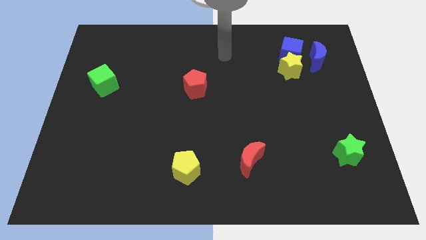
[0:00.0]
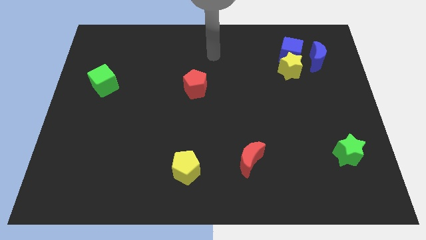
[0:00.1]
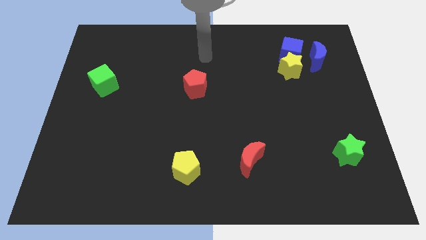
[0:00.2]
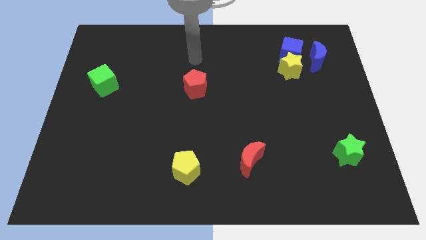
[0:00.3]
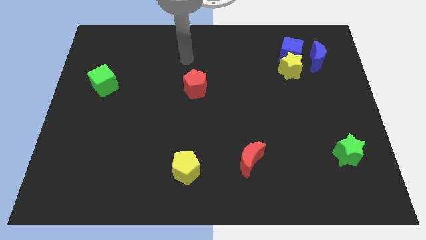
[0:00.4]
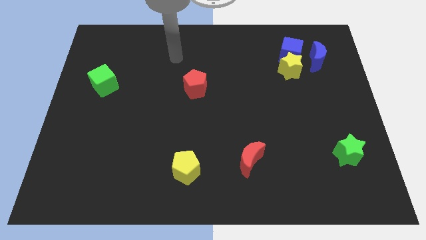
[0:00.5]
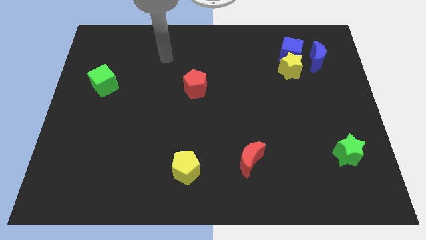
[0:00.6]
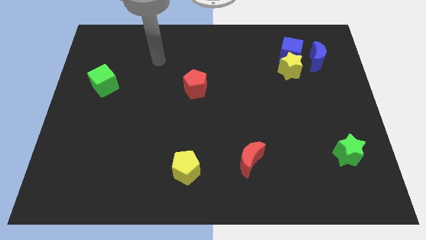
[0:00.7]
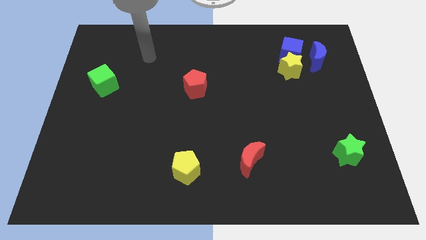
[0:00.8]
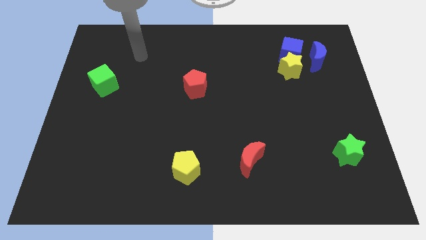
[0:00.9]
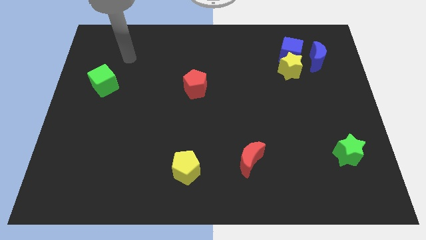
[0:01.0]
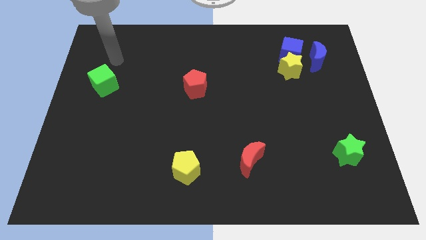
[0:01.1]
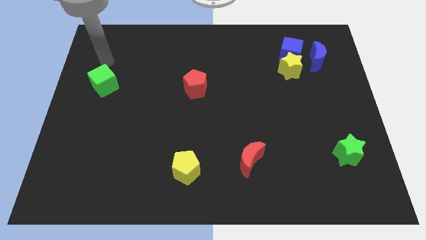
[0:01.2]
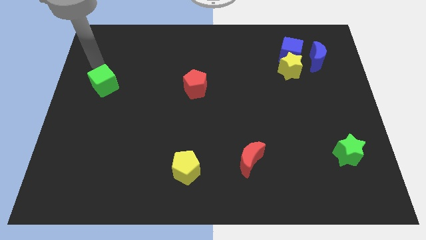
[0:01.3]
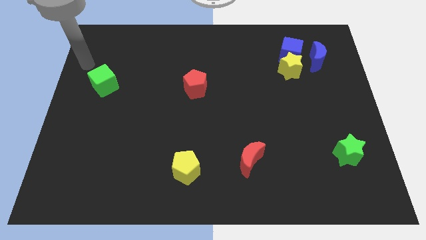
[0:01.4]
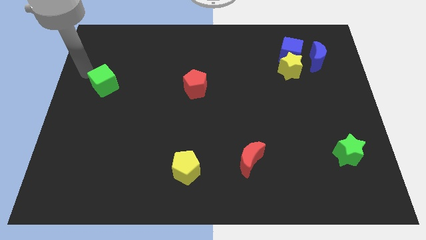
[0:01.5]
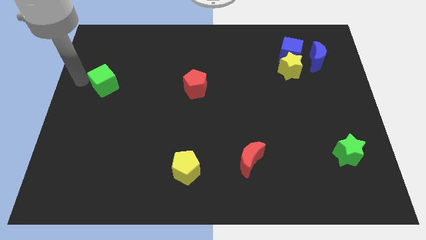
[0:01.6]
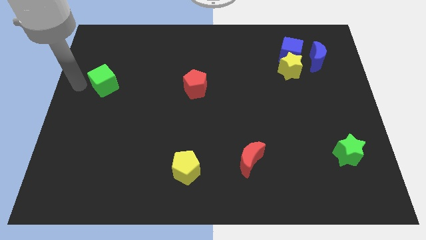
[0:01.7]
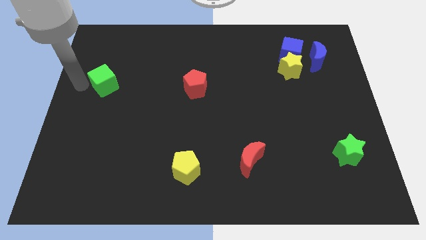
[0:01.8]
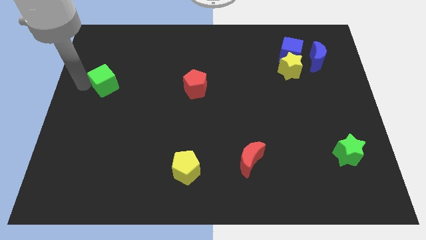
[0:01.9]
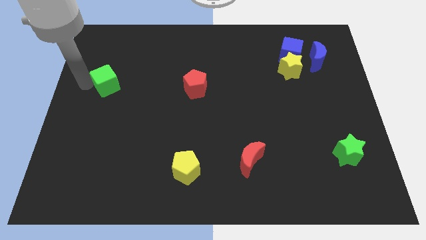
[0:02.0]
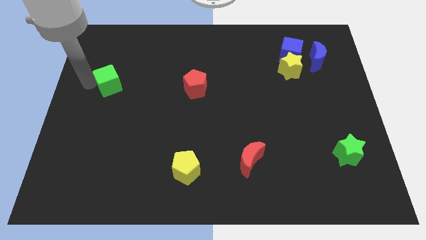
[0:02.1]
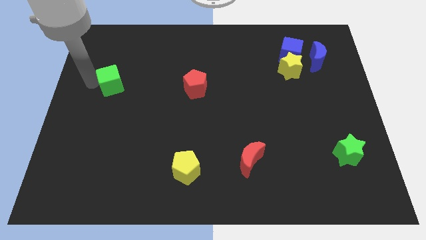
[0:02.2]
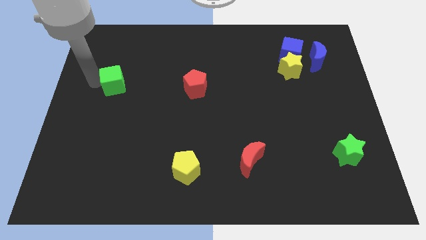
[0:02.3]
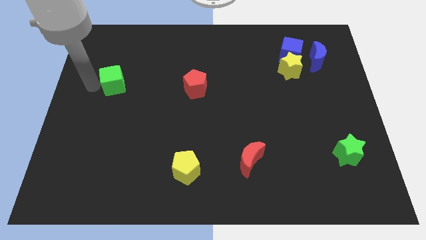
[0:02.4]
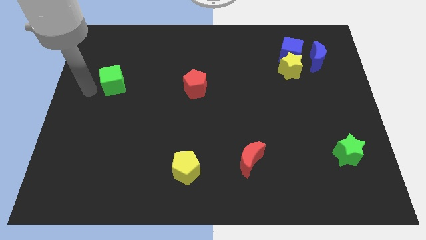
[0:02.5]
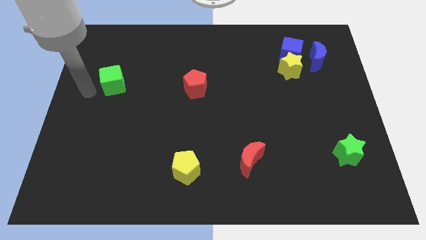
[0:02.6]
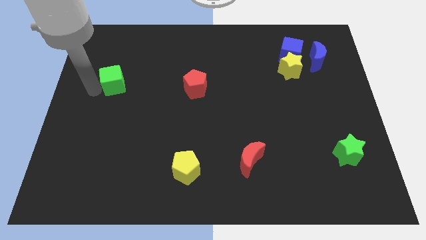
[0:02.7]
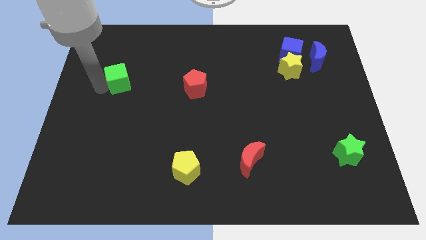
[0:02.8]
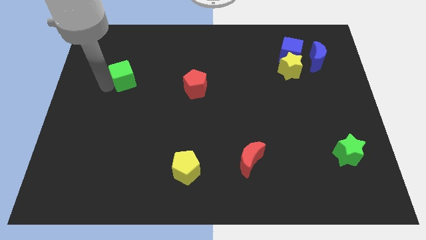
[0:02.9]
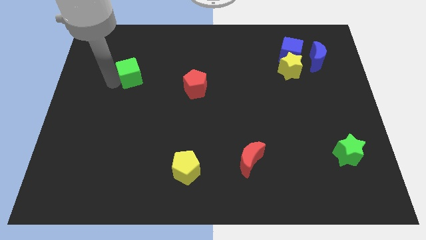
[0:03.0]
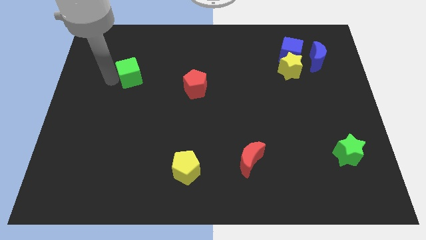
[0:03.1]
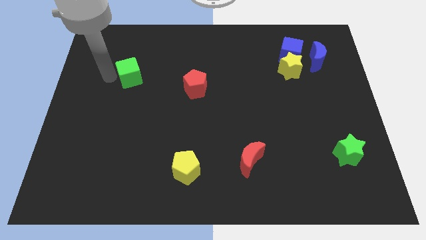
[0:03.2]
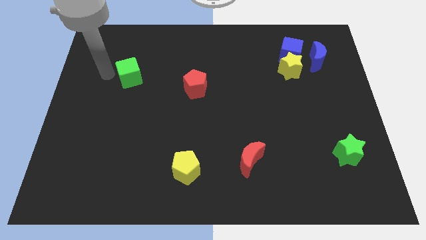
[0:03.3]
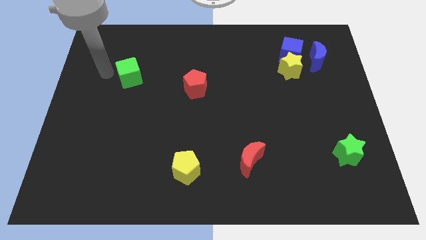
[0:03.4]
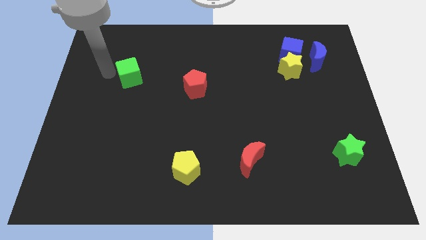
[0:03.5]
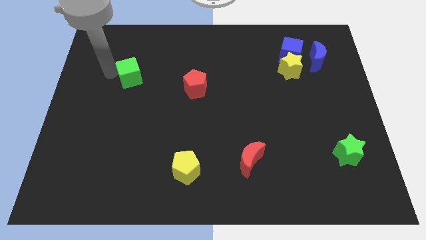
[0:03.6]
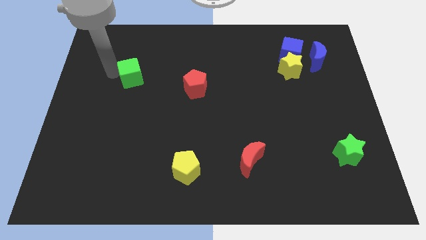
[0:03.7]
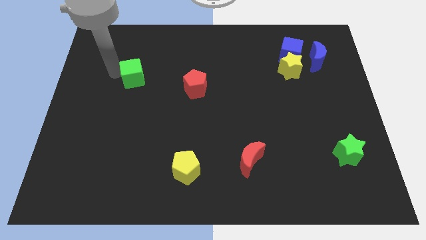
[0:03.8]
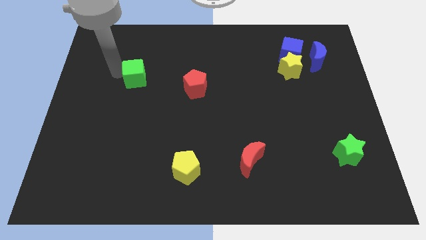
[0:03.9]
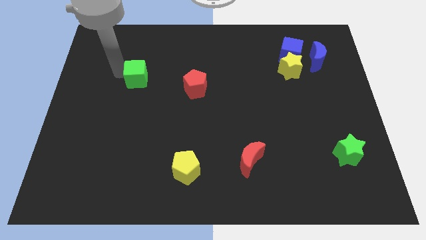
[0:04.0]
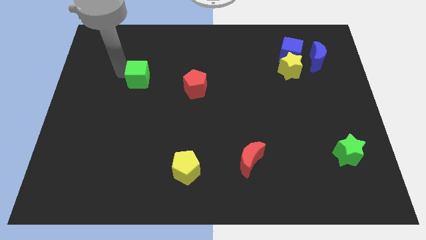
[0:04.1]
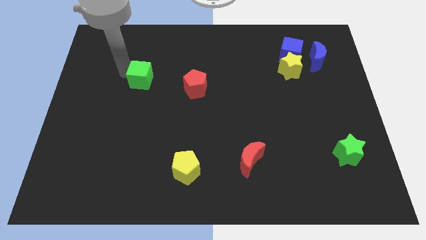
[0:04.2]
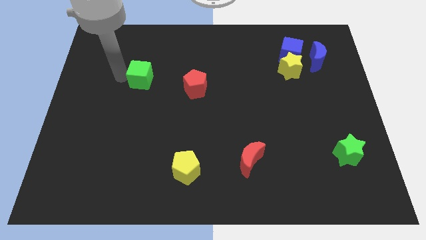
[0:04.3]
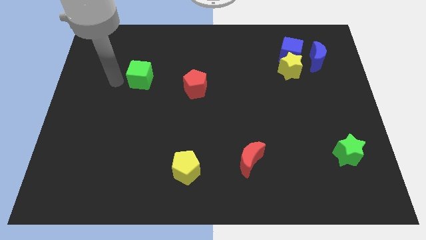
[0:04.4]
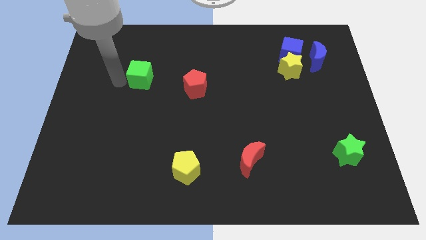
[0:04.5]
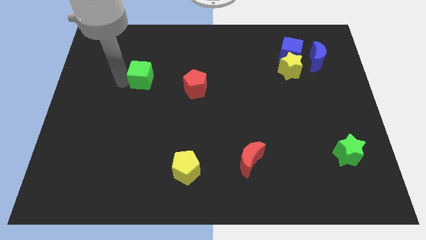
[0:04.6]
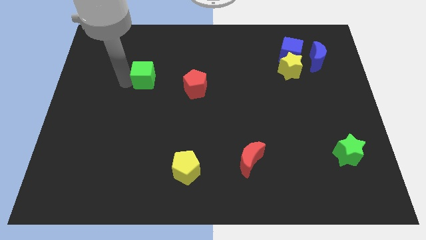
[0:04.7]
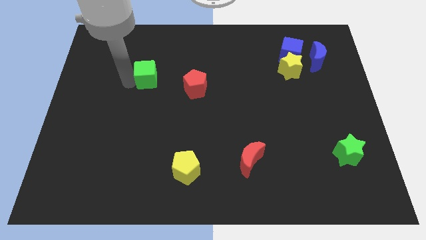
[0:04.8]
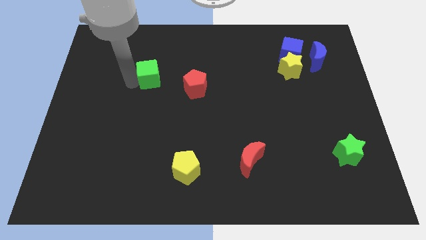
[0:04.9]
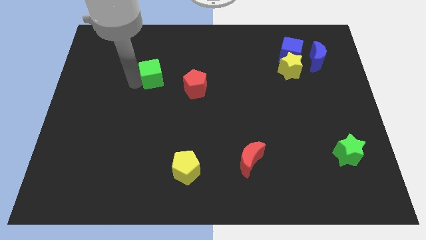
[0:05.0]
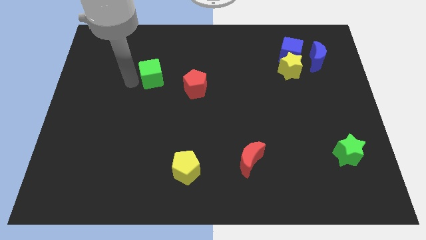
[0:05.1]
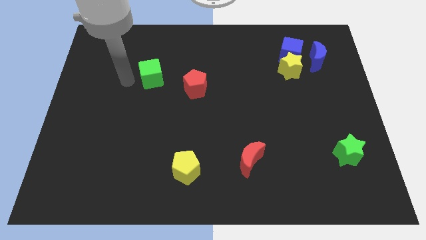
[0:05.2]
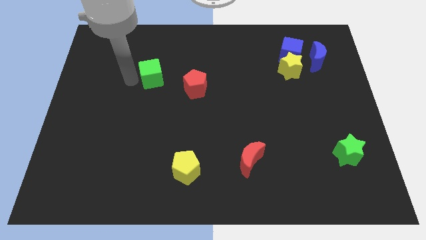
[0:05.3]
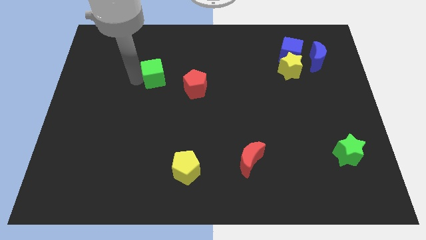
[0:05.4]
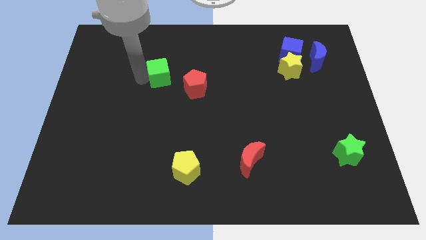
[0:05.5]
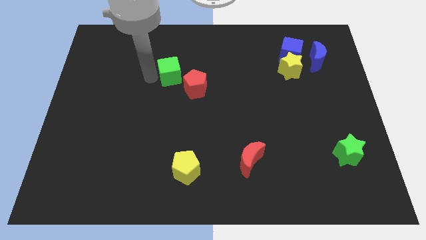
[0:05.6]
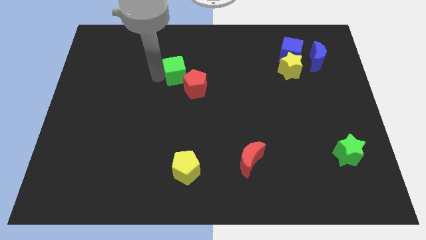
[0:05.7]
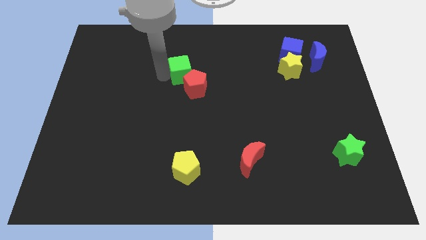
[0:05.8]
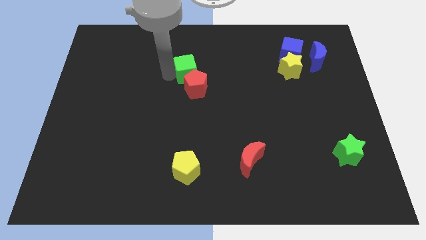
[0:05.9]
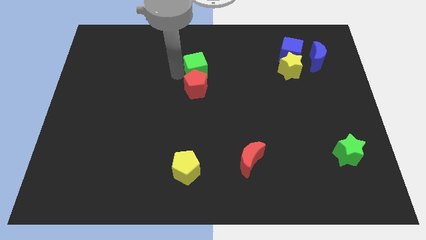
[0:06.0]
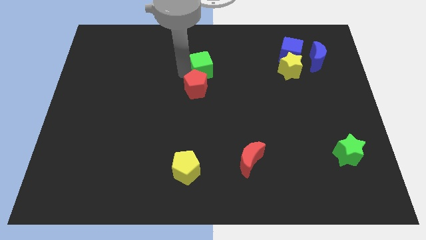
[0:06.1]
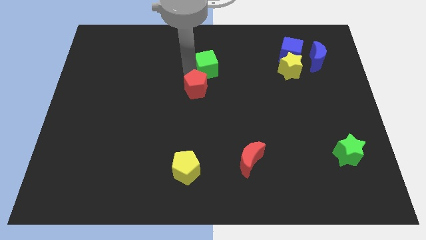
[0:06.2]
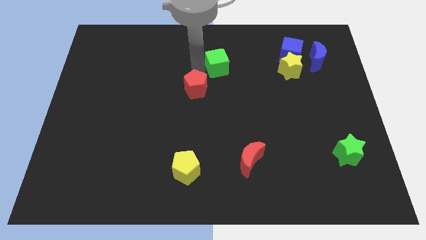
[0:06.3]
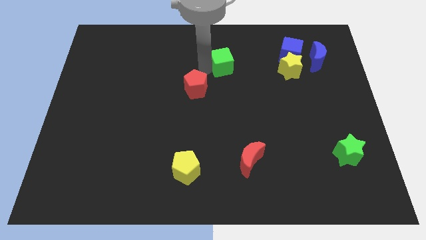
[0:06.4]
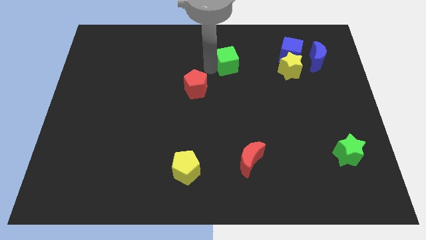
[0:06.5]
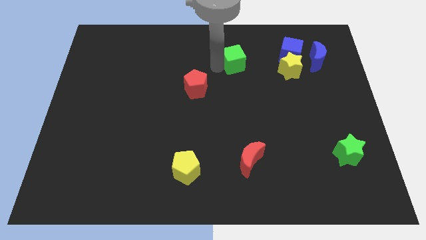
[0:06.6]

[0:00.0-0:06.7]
slide the green cube to the left of the blue cube

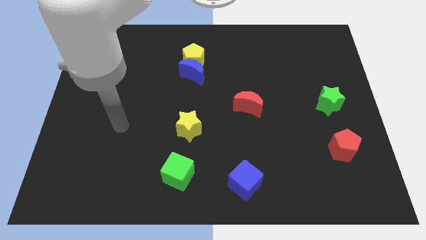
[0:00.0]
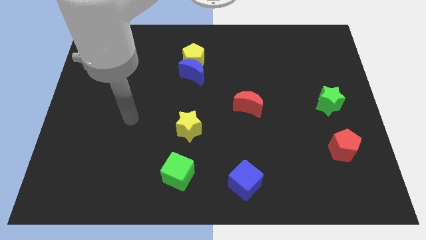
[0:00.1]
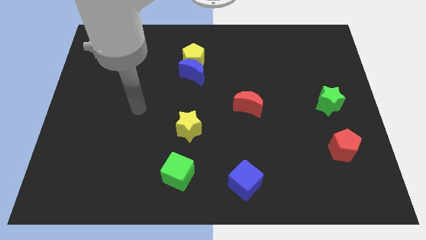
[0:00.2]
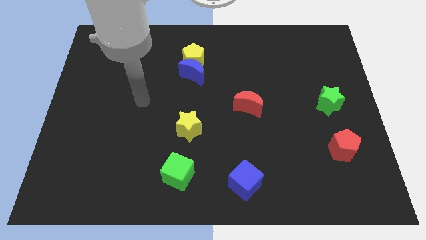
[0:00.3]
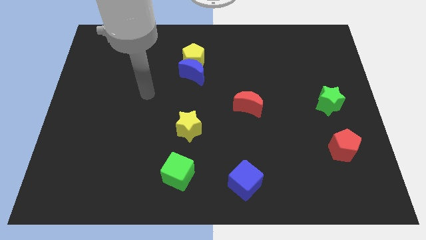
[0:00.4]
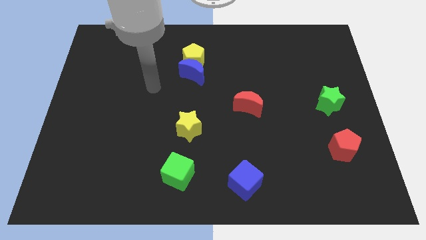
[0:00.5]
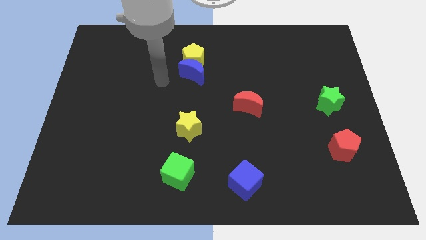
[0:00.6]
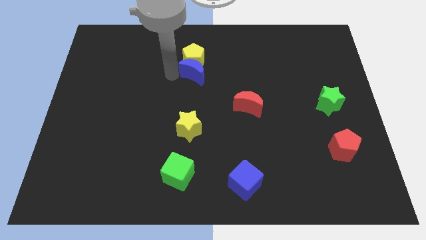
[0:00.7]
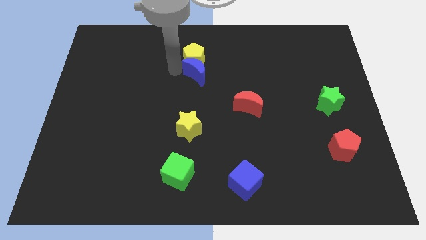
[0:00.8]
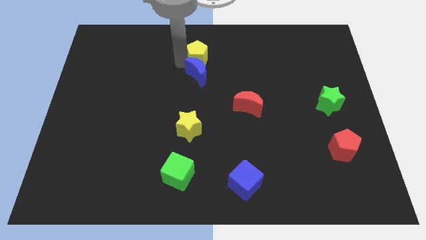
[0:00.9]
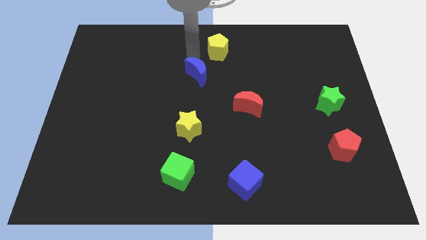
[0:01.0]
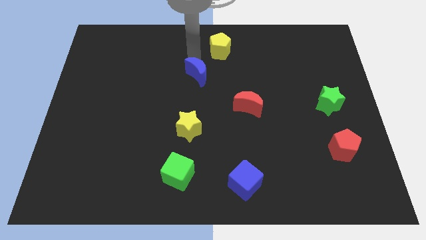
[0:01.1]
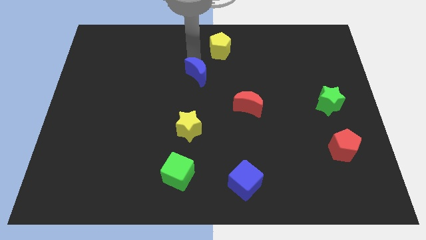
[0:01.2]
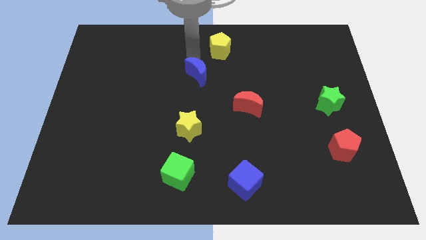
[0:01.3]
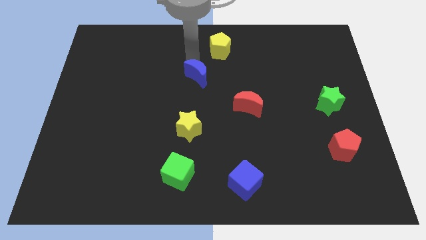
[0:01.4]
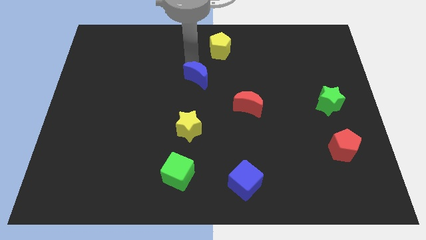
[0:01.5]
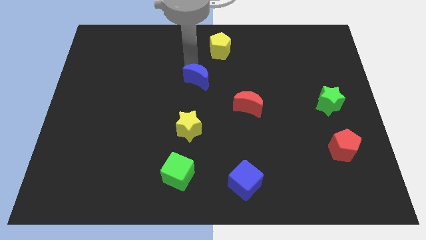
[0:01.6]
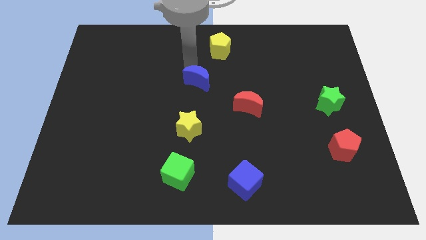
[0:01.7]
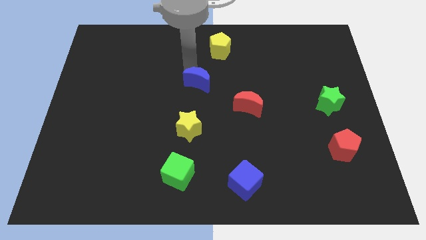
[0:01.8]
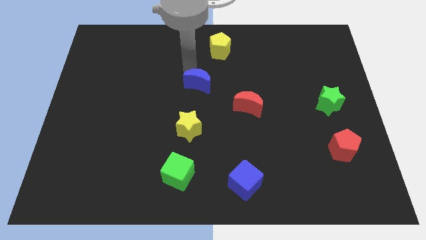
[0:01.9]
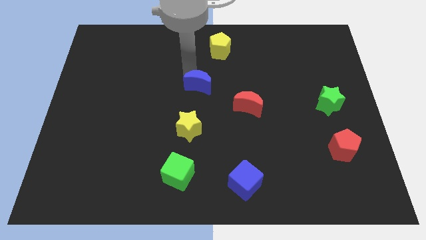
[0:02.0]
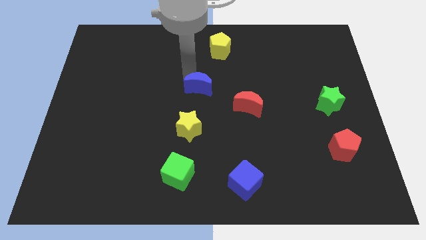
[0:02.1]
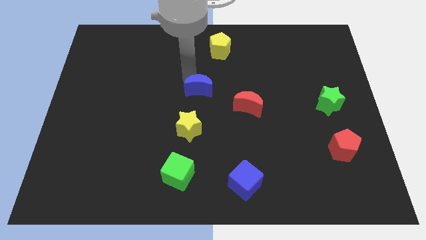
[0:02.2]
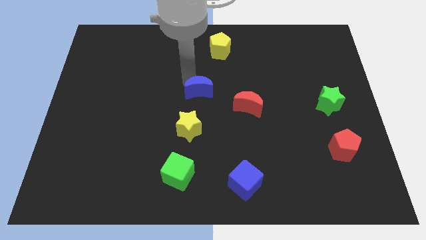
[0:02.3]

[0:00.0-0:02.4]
push the blue moon to the left side of the red moon
